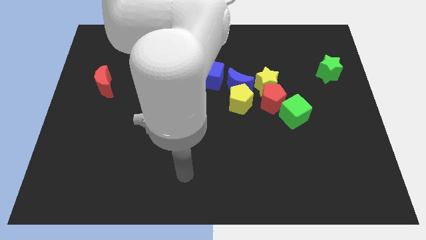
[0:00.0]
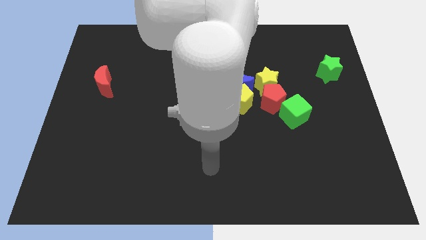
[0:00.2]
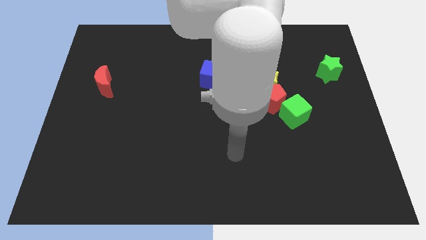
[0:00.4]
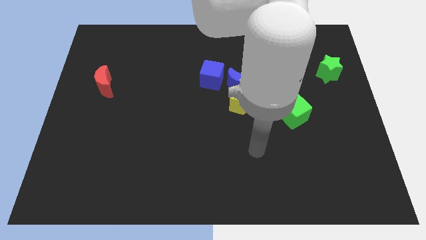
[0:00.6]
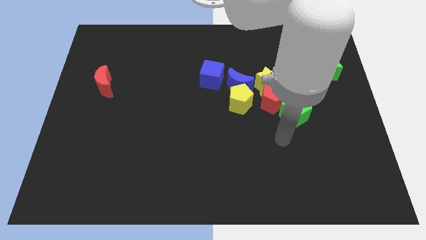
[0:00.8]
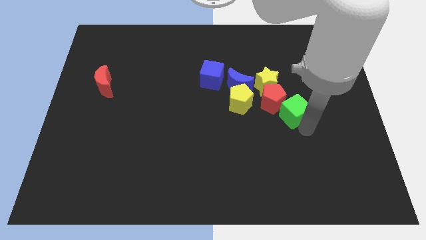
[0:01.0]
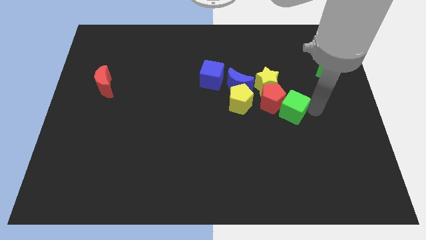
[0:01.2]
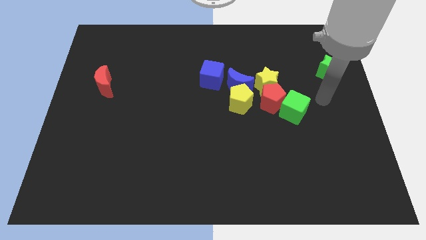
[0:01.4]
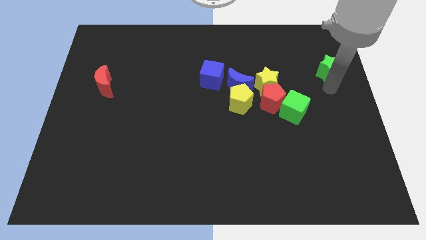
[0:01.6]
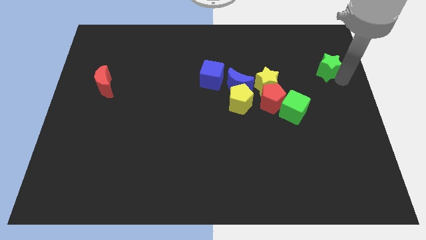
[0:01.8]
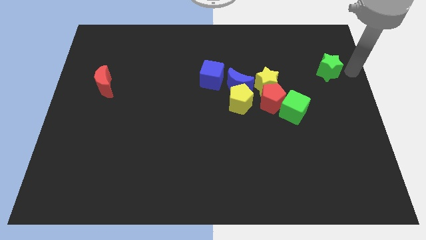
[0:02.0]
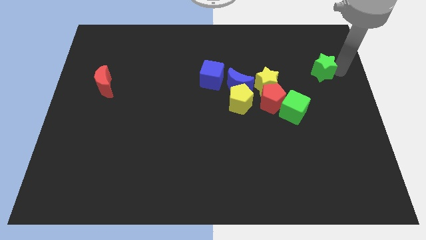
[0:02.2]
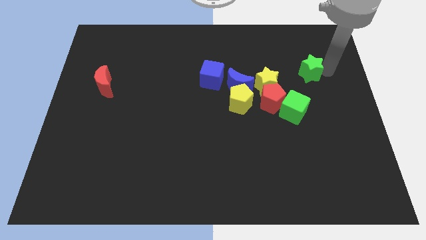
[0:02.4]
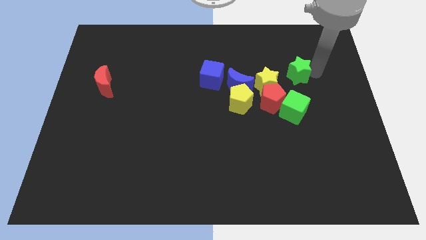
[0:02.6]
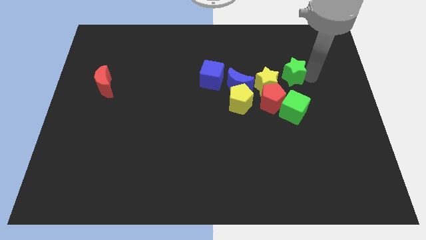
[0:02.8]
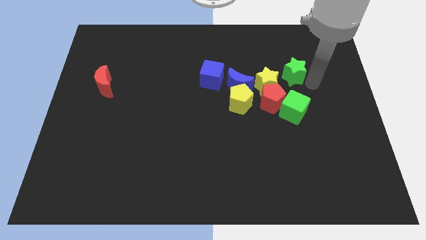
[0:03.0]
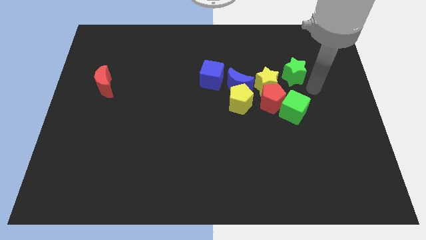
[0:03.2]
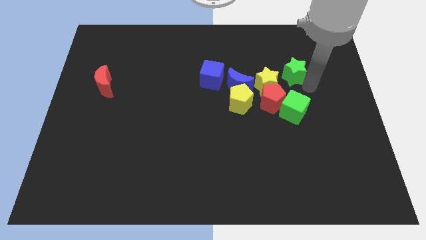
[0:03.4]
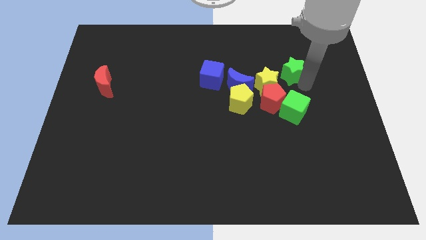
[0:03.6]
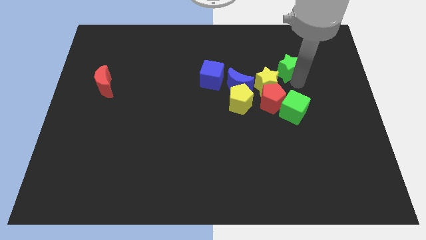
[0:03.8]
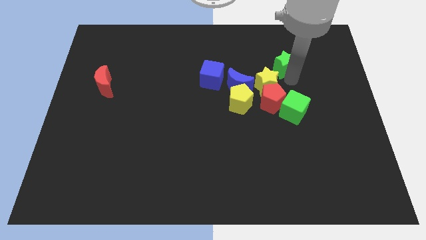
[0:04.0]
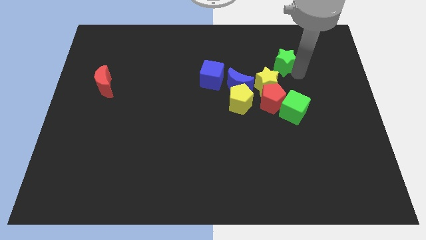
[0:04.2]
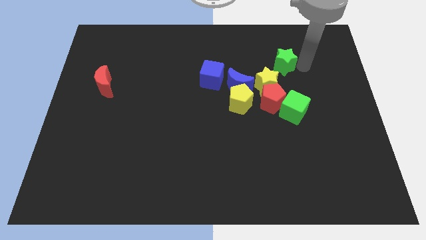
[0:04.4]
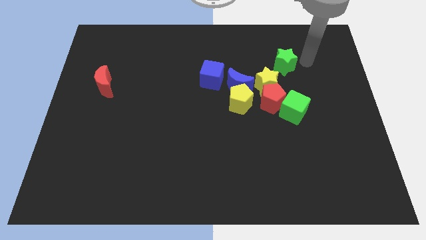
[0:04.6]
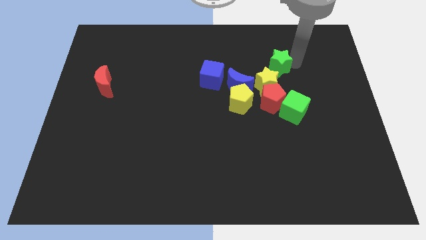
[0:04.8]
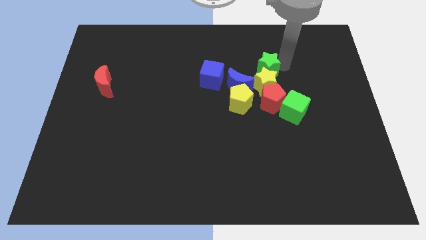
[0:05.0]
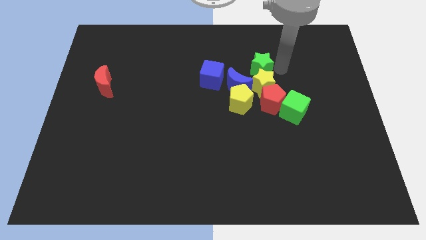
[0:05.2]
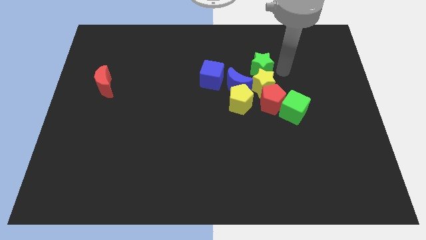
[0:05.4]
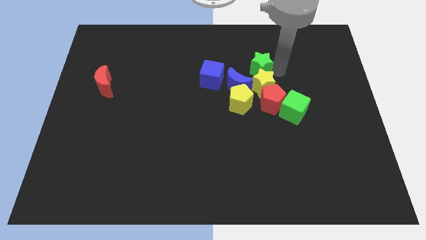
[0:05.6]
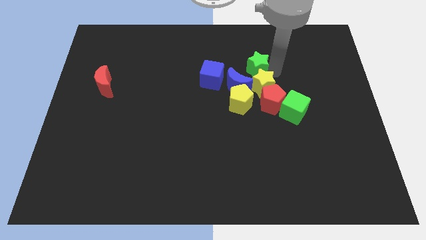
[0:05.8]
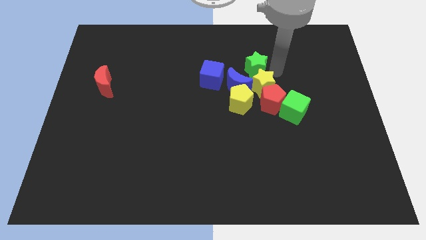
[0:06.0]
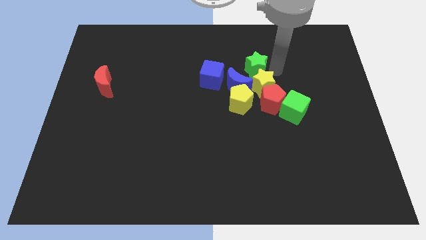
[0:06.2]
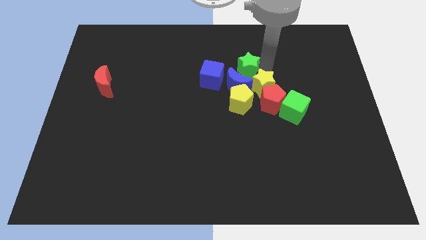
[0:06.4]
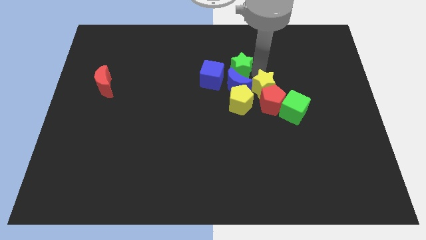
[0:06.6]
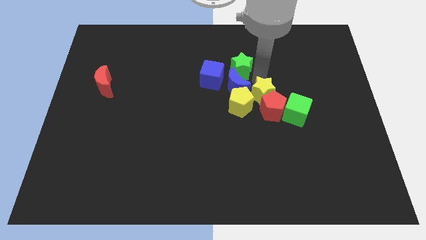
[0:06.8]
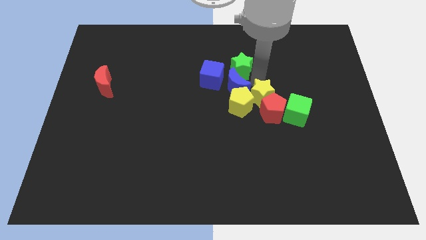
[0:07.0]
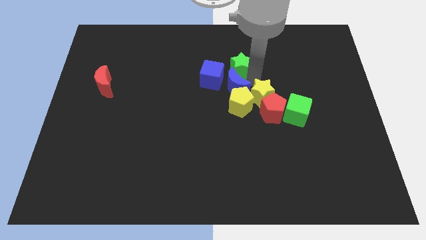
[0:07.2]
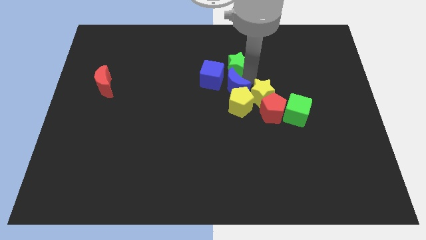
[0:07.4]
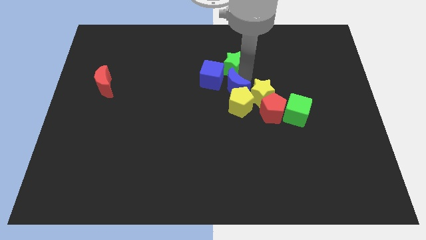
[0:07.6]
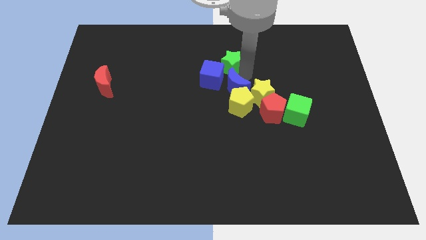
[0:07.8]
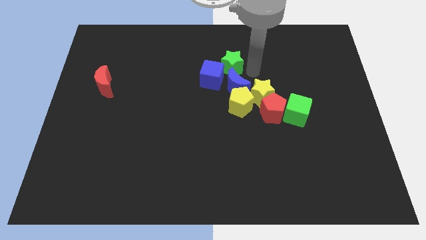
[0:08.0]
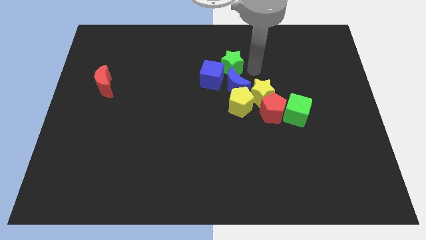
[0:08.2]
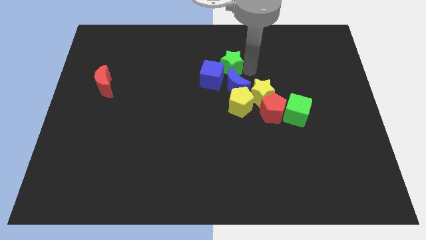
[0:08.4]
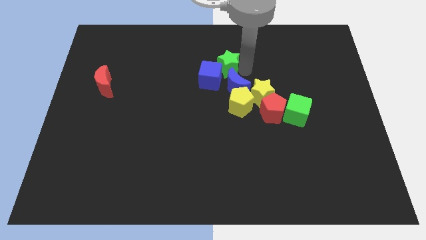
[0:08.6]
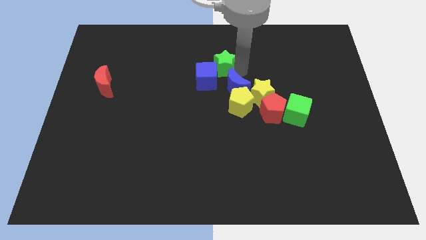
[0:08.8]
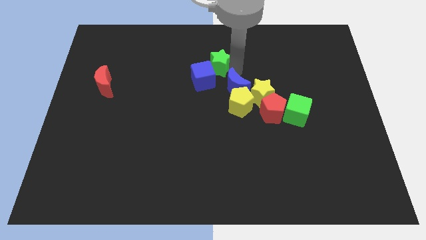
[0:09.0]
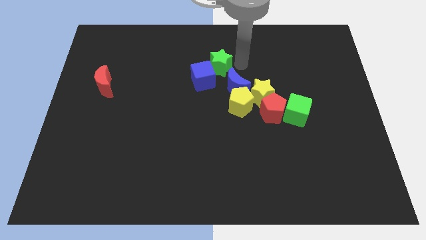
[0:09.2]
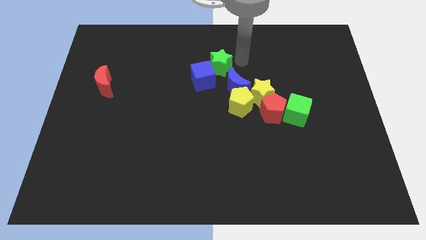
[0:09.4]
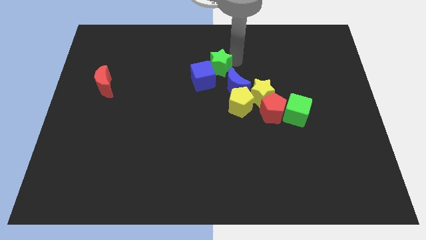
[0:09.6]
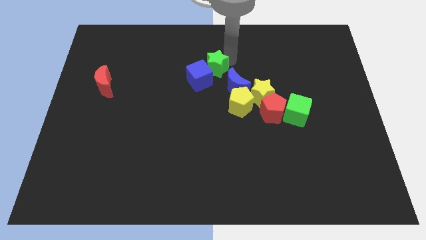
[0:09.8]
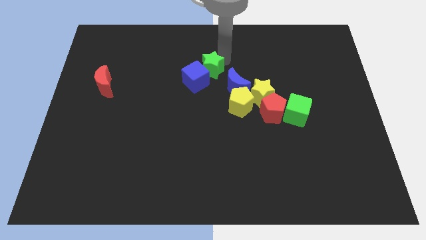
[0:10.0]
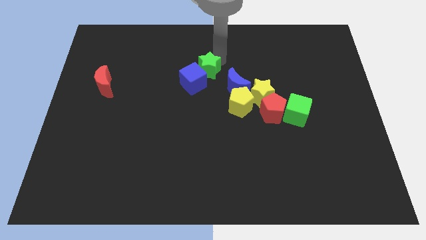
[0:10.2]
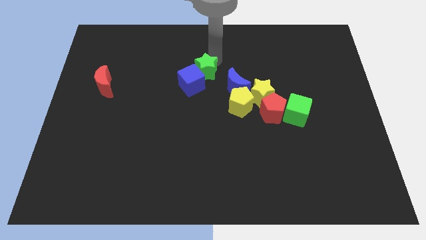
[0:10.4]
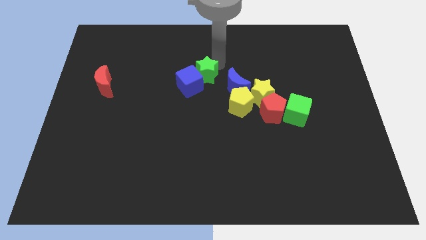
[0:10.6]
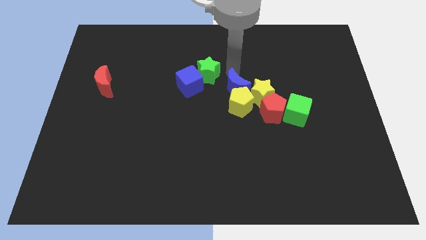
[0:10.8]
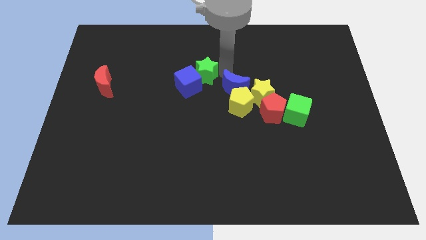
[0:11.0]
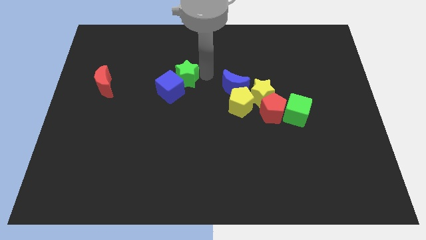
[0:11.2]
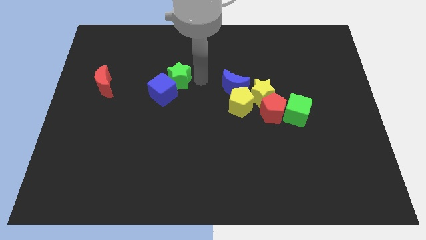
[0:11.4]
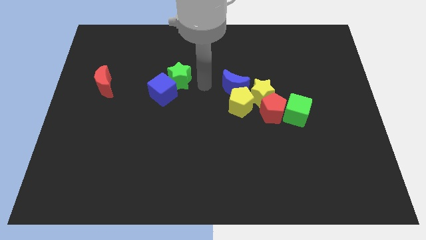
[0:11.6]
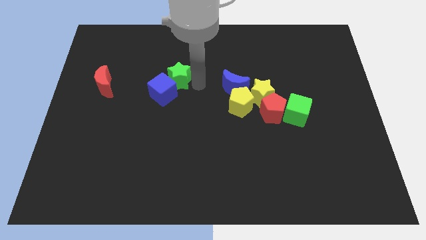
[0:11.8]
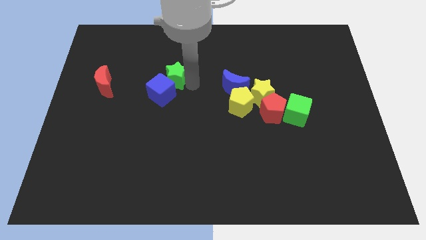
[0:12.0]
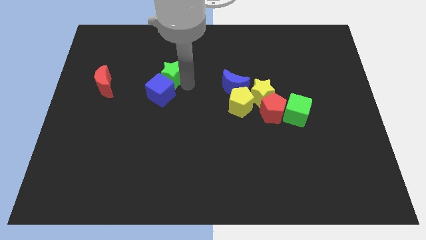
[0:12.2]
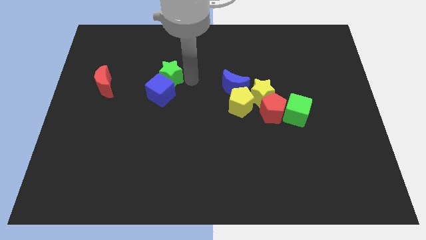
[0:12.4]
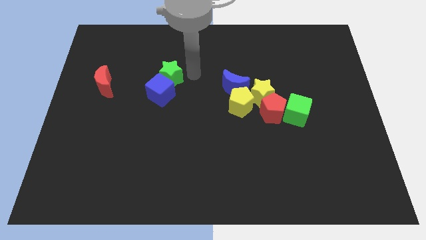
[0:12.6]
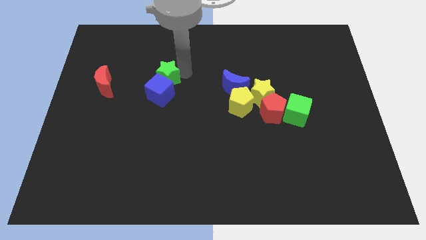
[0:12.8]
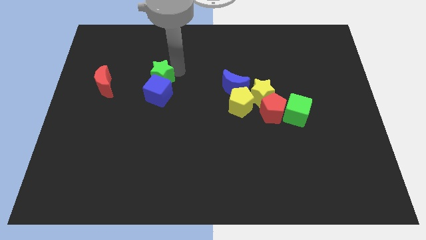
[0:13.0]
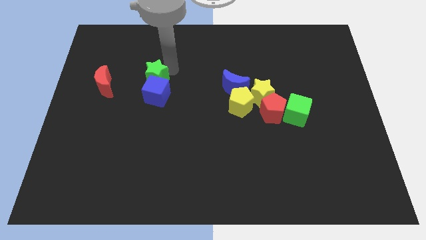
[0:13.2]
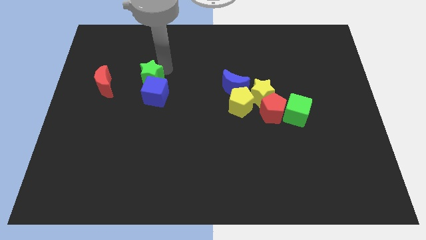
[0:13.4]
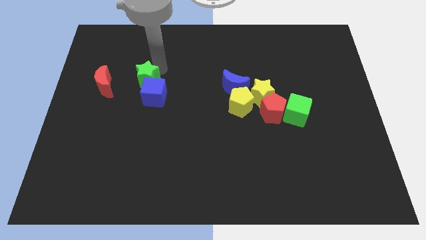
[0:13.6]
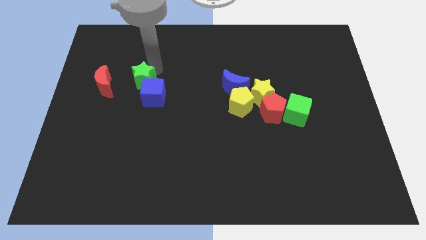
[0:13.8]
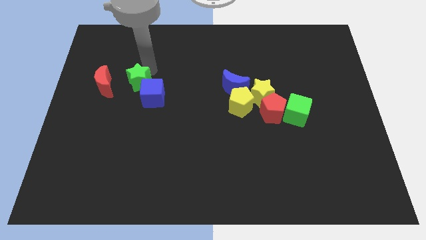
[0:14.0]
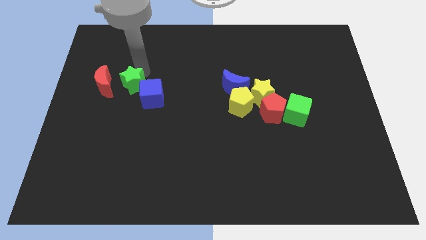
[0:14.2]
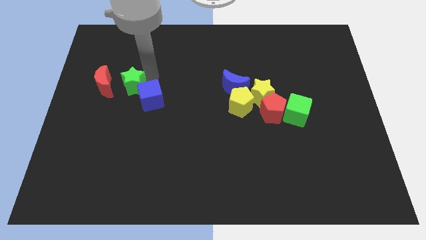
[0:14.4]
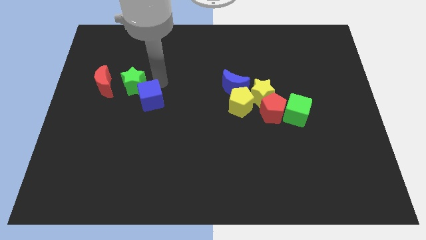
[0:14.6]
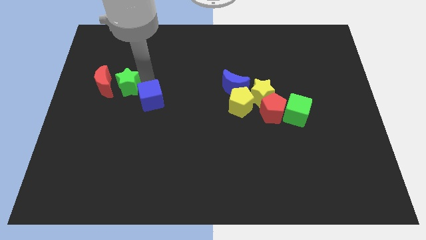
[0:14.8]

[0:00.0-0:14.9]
move the green star to the red moon

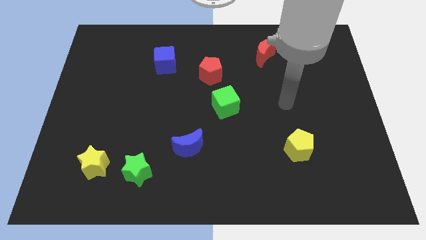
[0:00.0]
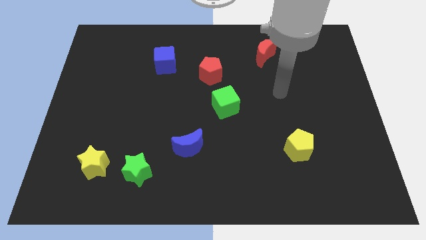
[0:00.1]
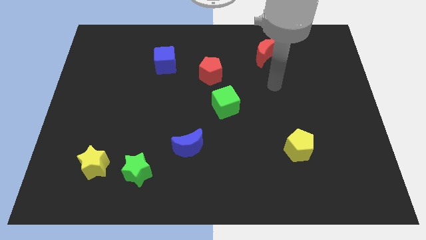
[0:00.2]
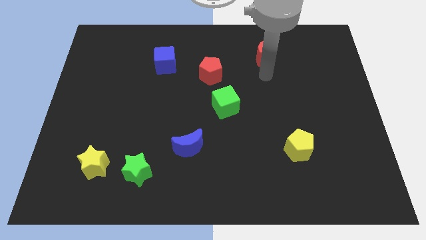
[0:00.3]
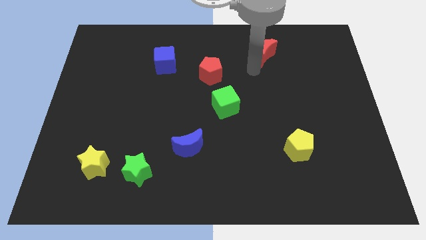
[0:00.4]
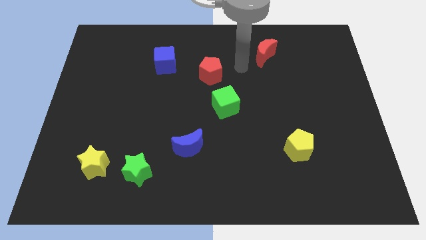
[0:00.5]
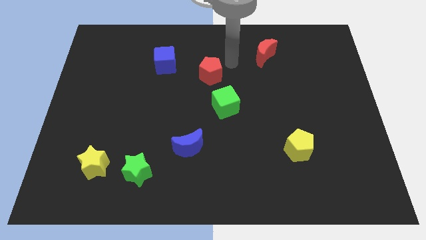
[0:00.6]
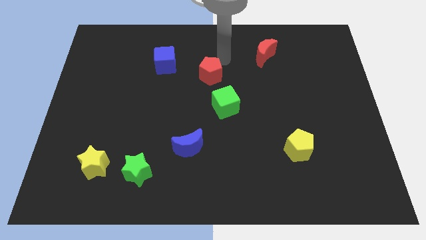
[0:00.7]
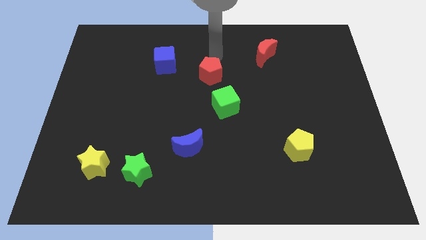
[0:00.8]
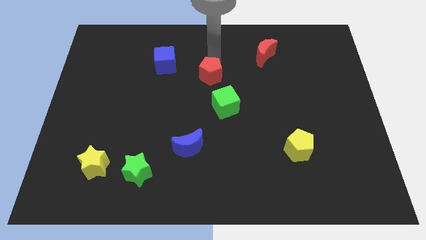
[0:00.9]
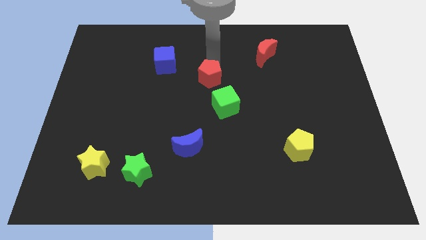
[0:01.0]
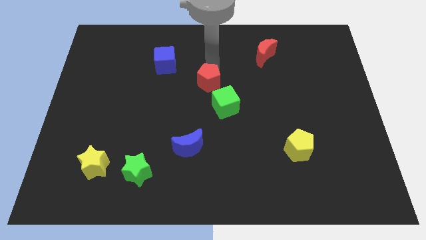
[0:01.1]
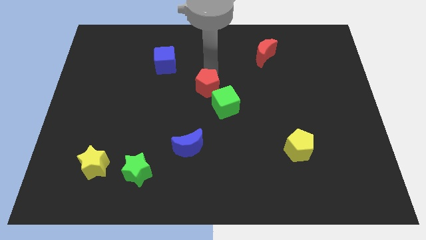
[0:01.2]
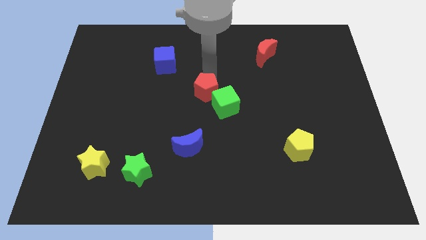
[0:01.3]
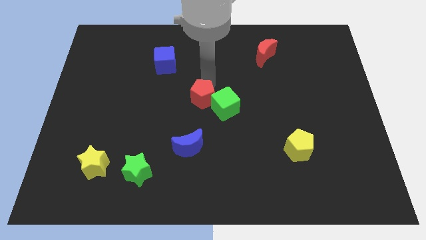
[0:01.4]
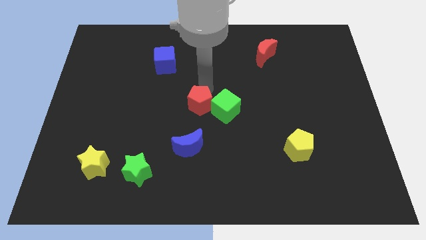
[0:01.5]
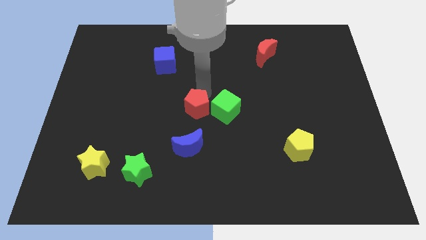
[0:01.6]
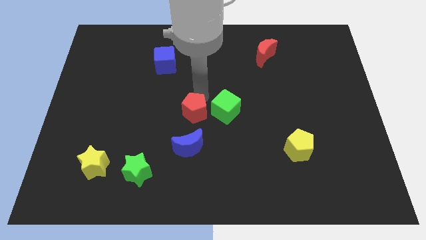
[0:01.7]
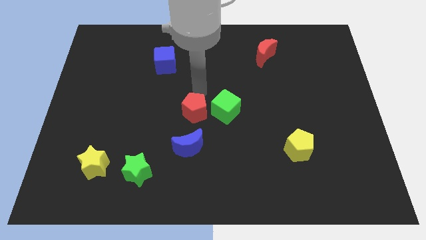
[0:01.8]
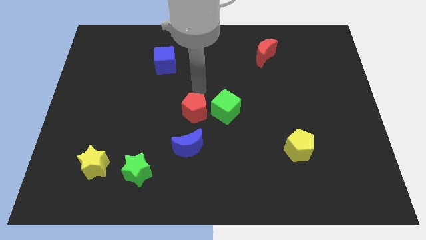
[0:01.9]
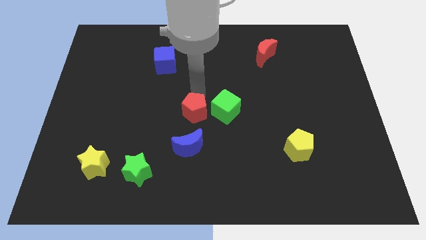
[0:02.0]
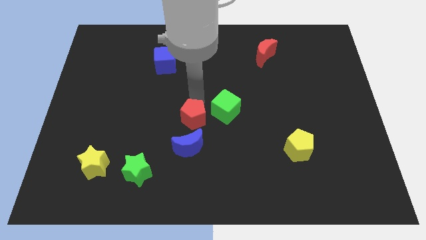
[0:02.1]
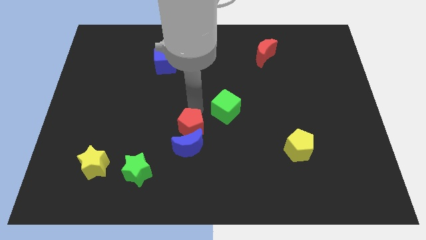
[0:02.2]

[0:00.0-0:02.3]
slide the red pentagon towards the blue moon
